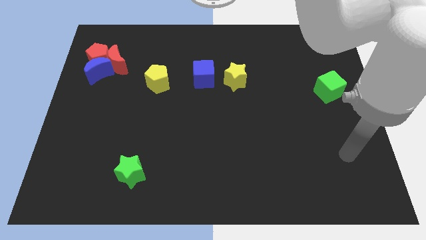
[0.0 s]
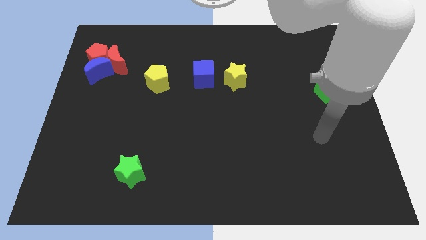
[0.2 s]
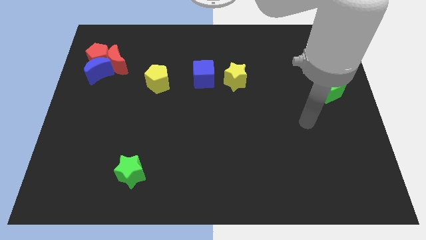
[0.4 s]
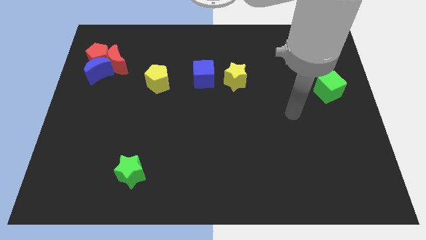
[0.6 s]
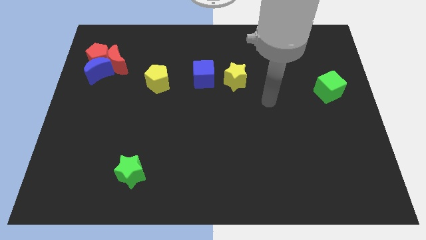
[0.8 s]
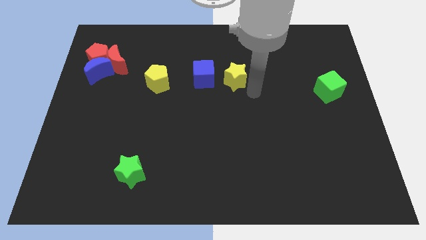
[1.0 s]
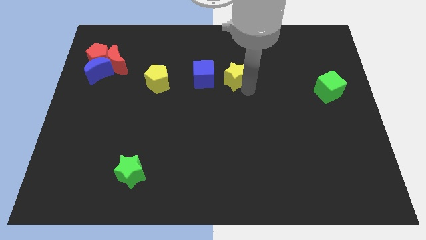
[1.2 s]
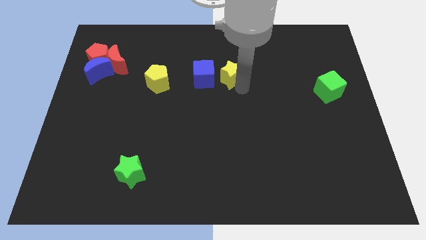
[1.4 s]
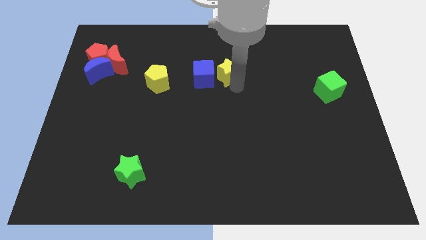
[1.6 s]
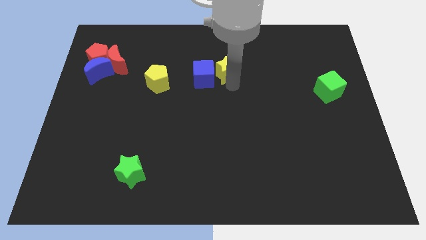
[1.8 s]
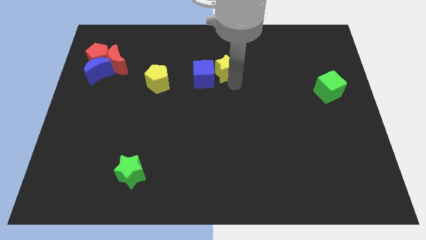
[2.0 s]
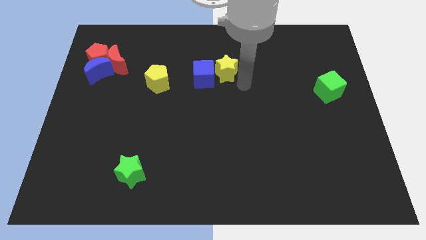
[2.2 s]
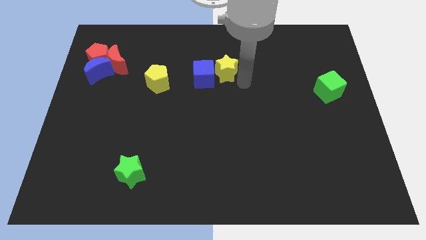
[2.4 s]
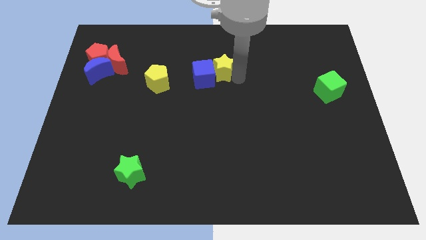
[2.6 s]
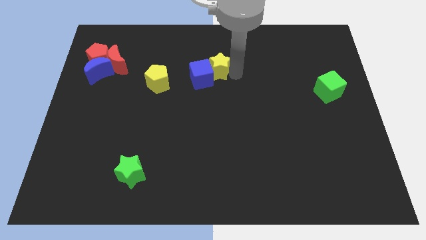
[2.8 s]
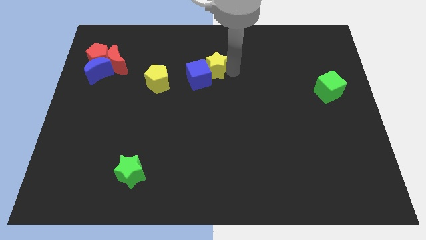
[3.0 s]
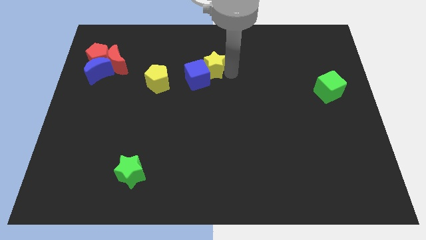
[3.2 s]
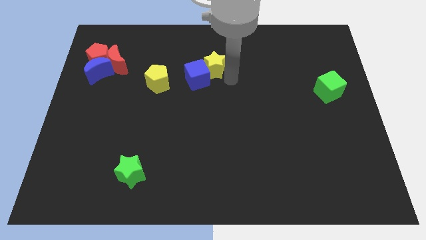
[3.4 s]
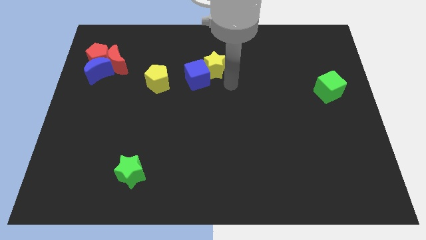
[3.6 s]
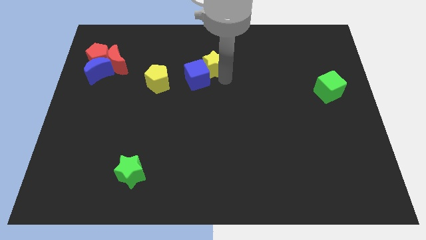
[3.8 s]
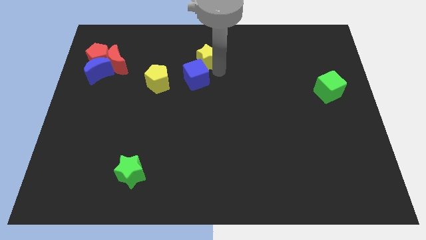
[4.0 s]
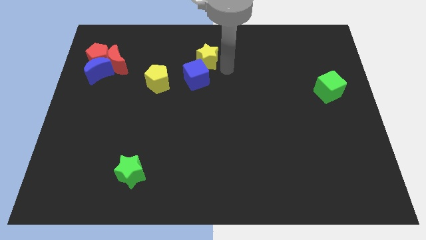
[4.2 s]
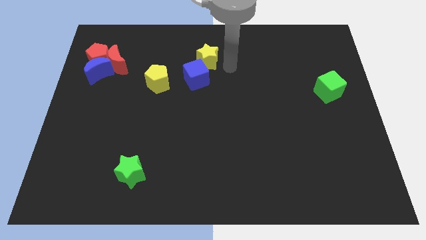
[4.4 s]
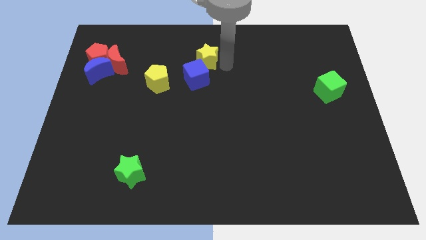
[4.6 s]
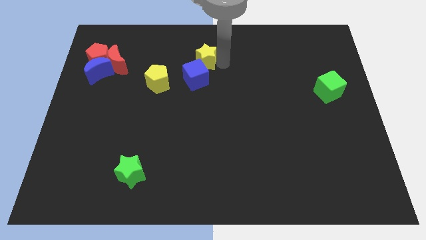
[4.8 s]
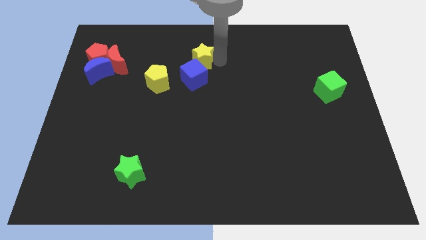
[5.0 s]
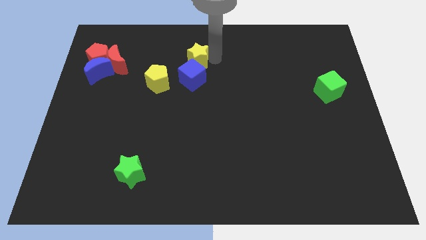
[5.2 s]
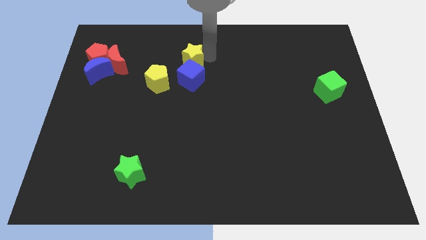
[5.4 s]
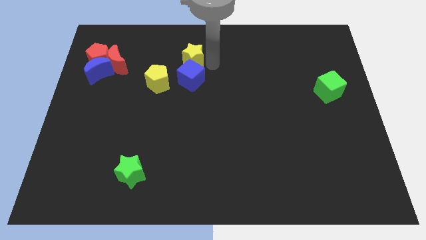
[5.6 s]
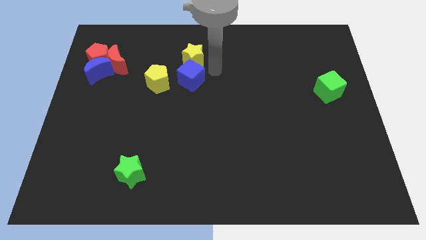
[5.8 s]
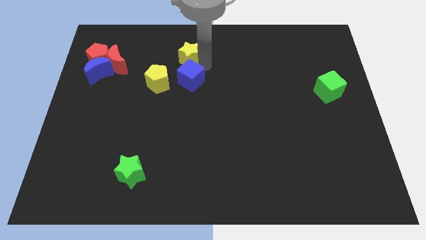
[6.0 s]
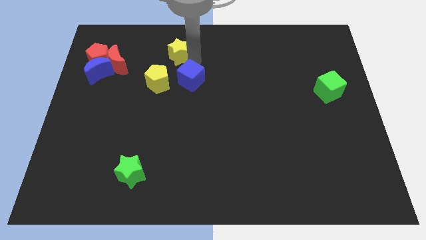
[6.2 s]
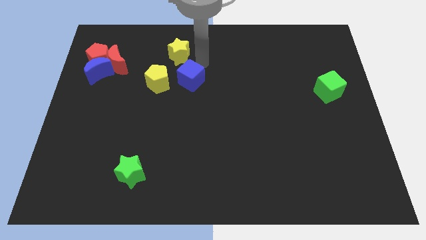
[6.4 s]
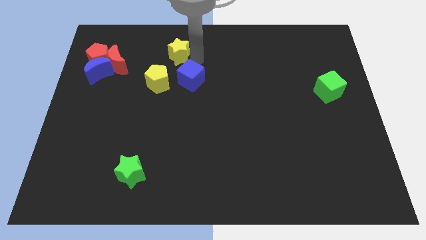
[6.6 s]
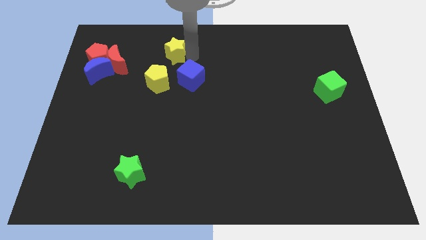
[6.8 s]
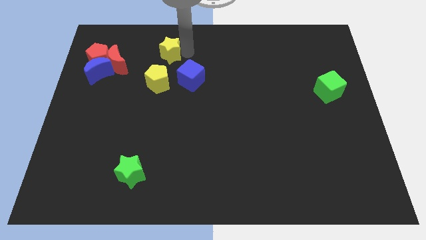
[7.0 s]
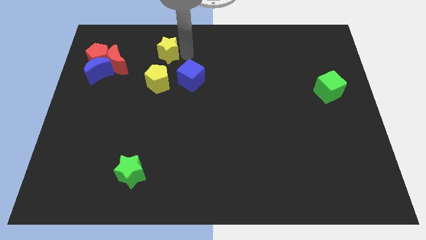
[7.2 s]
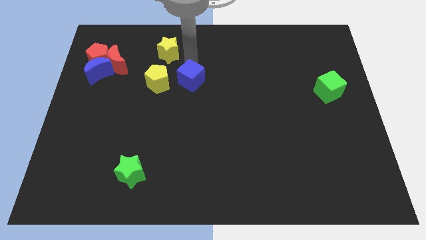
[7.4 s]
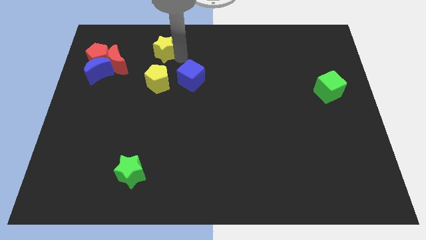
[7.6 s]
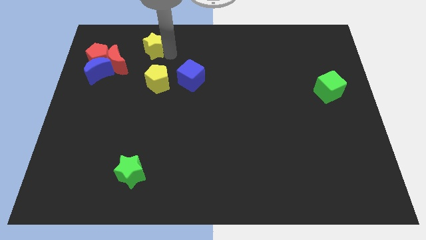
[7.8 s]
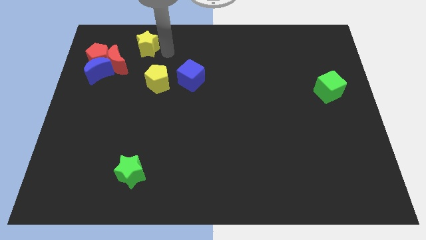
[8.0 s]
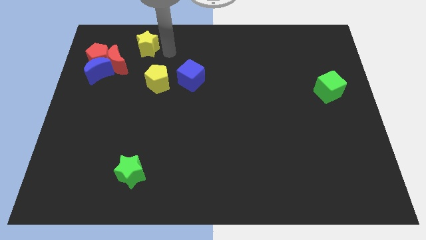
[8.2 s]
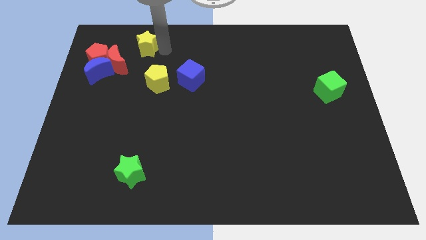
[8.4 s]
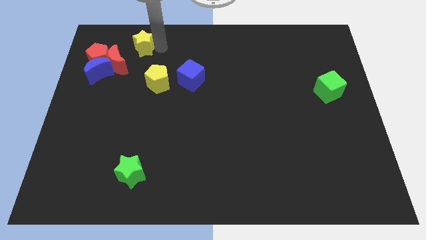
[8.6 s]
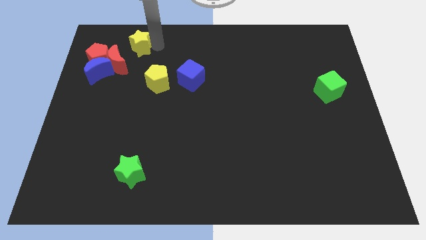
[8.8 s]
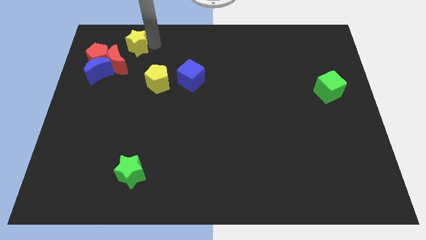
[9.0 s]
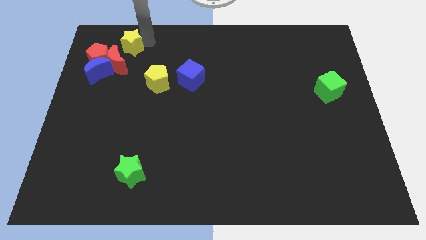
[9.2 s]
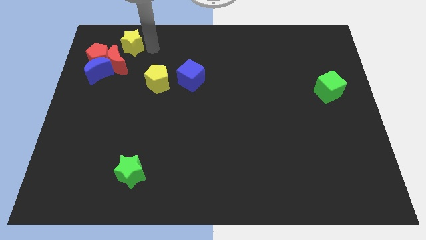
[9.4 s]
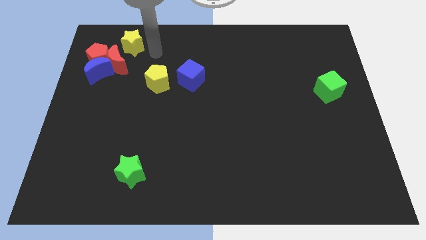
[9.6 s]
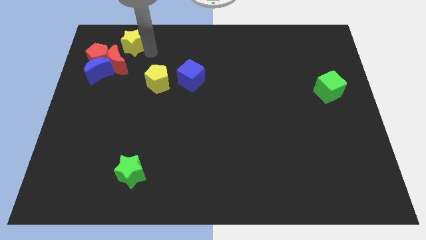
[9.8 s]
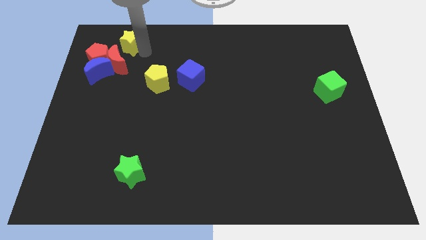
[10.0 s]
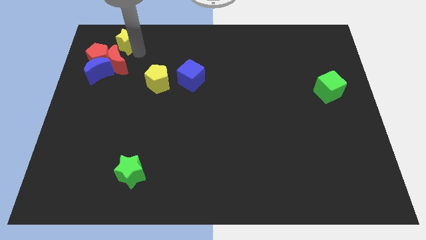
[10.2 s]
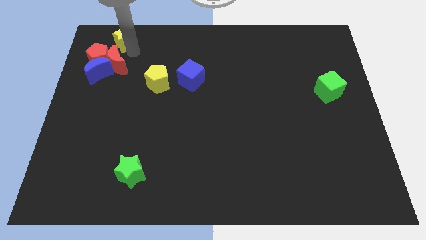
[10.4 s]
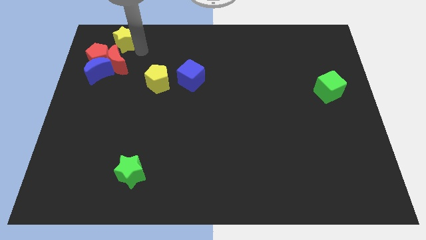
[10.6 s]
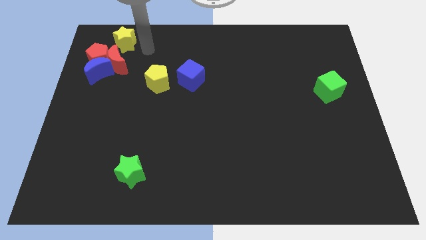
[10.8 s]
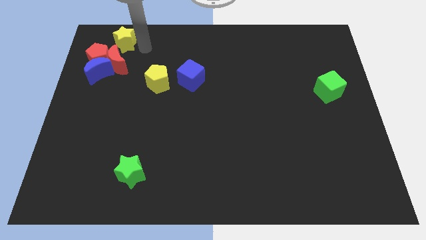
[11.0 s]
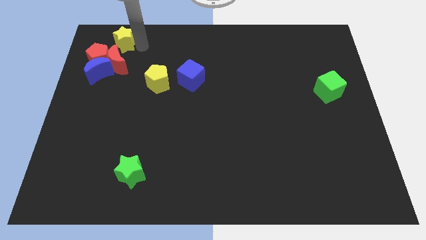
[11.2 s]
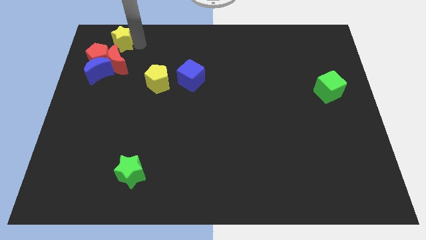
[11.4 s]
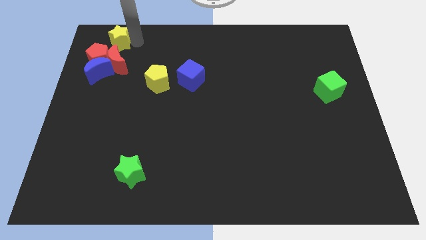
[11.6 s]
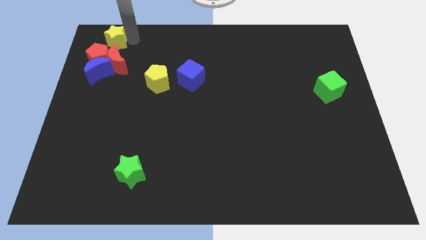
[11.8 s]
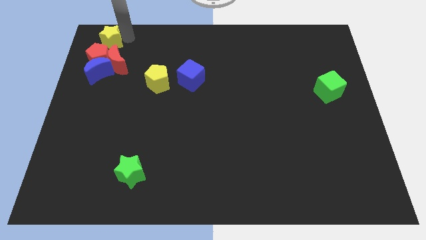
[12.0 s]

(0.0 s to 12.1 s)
push the yellow star to the upper left corner

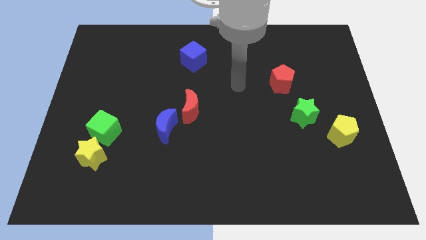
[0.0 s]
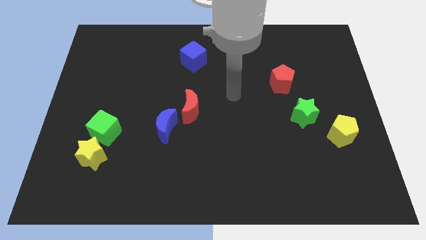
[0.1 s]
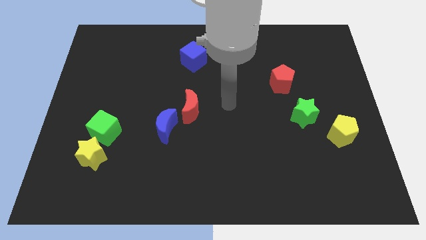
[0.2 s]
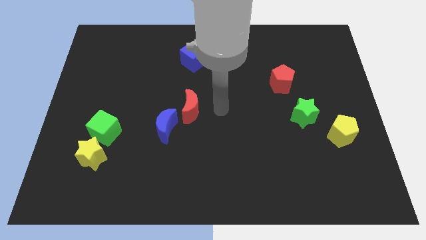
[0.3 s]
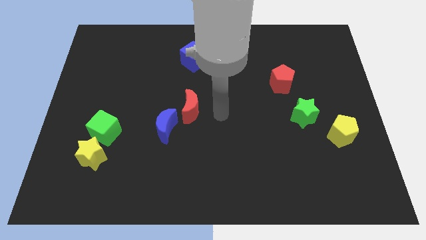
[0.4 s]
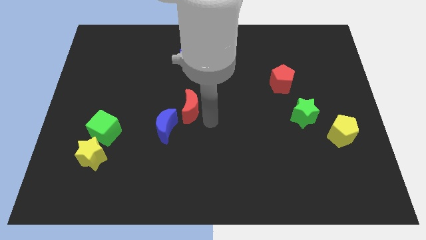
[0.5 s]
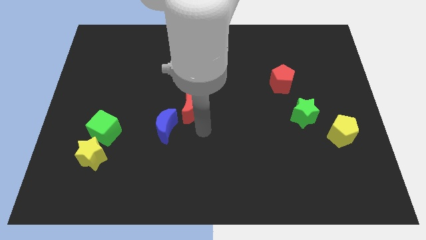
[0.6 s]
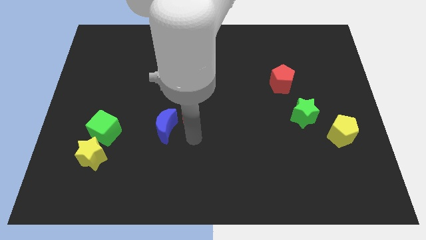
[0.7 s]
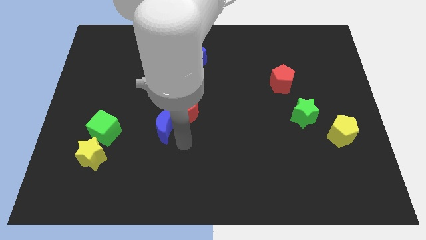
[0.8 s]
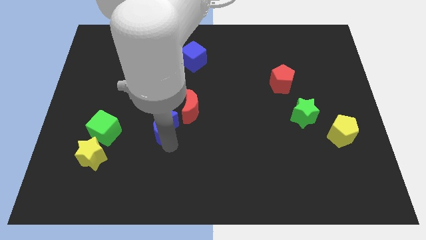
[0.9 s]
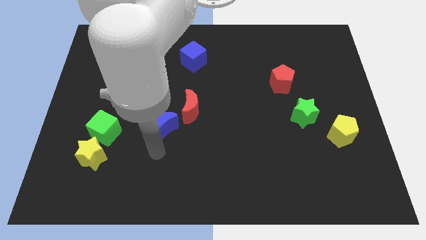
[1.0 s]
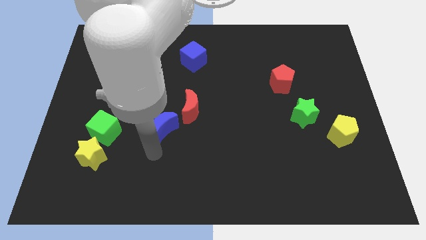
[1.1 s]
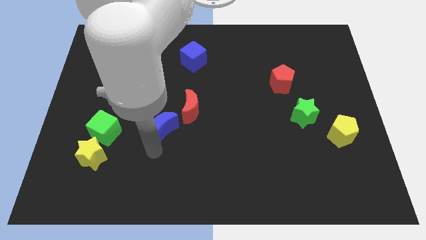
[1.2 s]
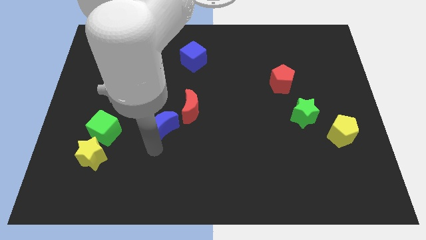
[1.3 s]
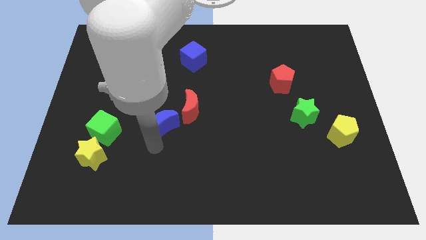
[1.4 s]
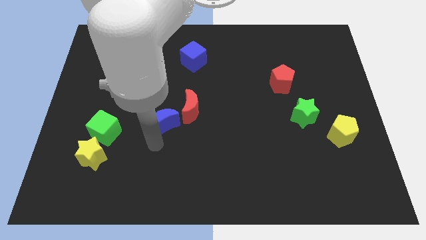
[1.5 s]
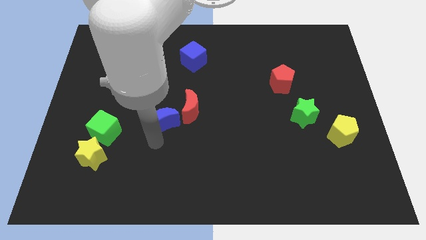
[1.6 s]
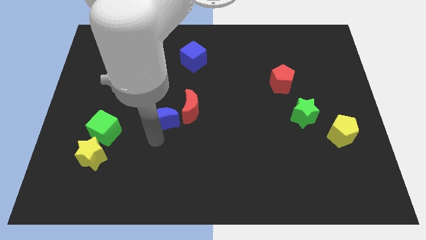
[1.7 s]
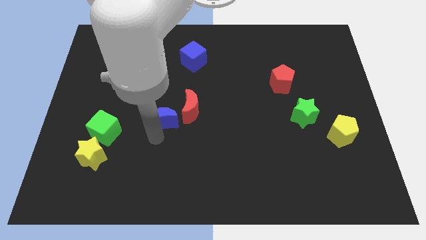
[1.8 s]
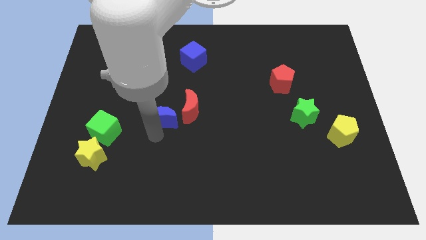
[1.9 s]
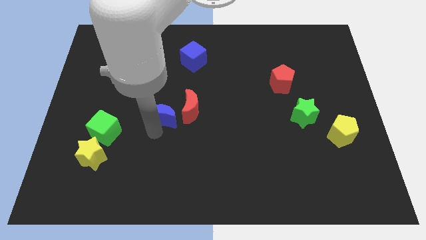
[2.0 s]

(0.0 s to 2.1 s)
move the blue moon to the middle
